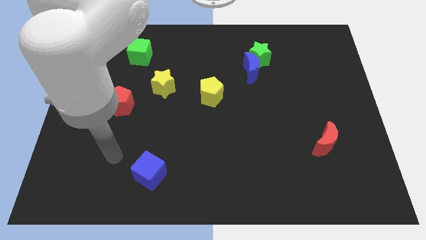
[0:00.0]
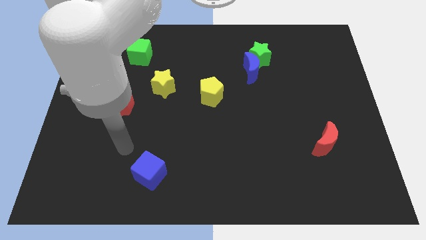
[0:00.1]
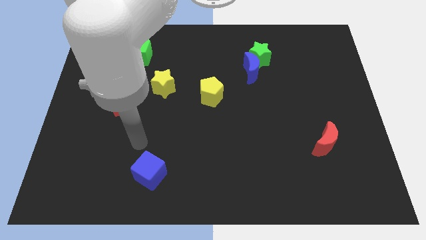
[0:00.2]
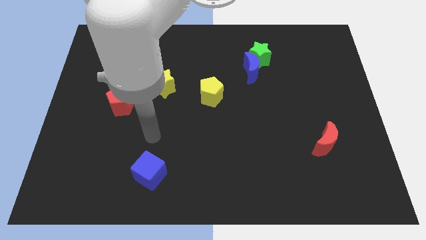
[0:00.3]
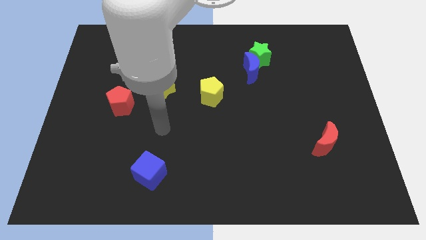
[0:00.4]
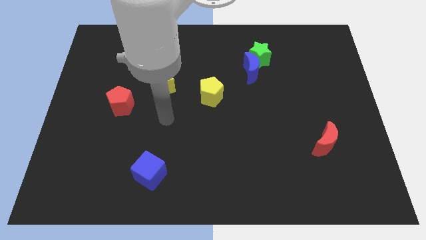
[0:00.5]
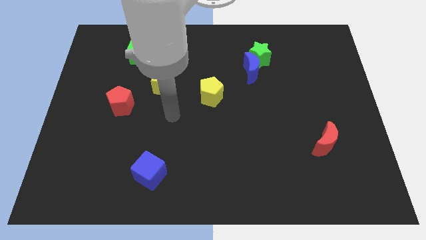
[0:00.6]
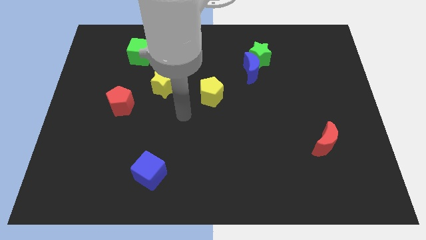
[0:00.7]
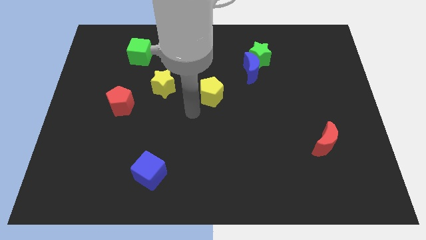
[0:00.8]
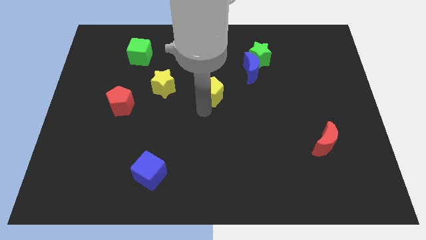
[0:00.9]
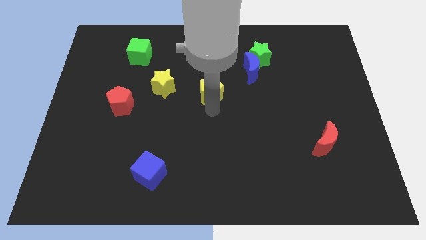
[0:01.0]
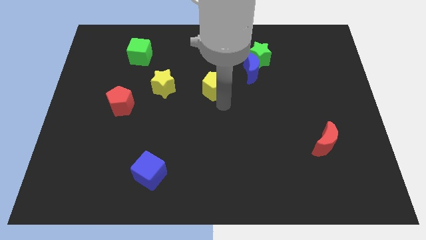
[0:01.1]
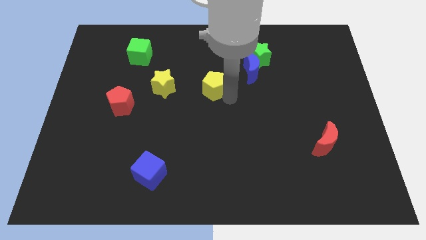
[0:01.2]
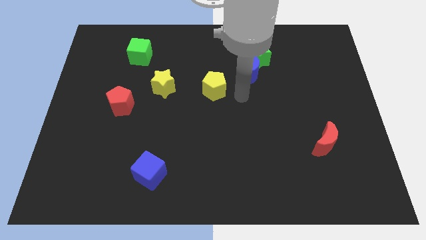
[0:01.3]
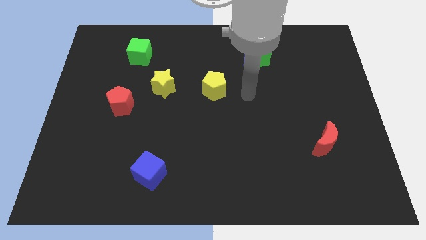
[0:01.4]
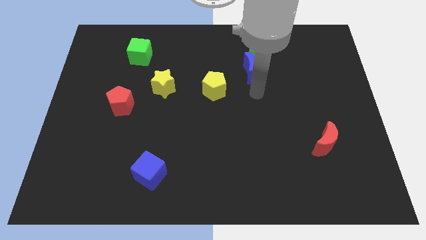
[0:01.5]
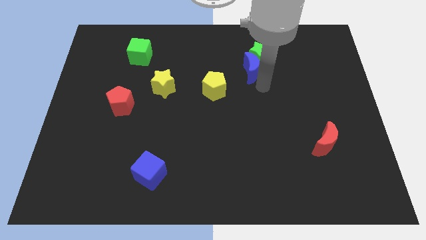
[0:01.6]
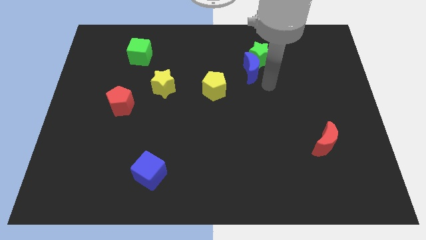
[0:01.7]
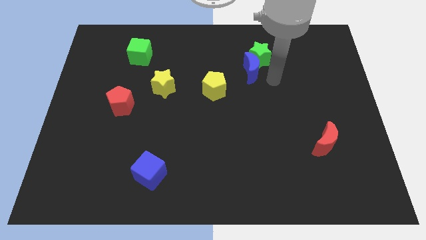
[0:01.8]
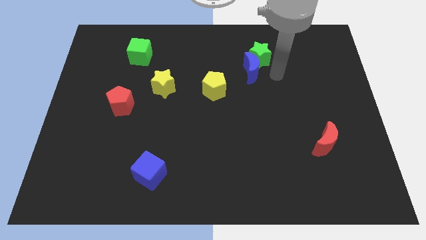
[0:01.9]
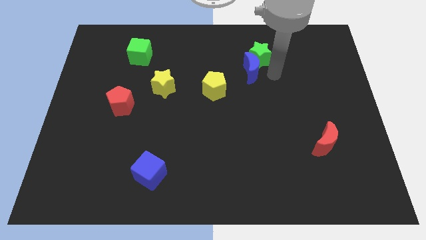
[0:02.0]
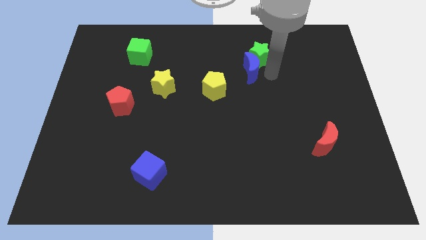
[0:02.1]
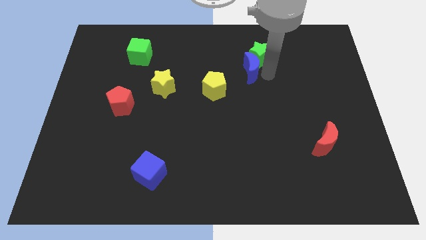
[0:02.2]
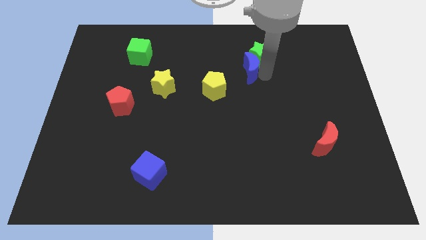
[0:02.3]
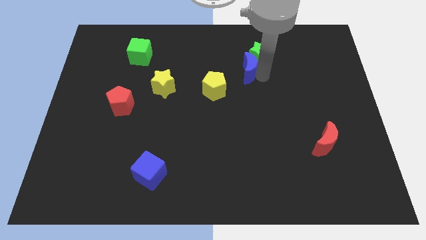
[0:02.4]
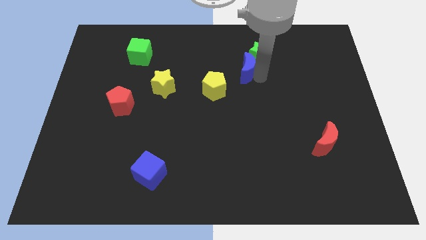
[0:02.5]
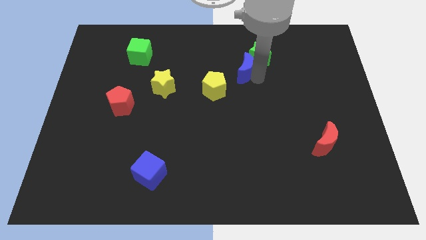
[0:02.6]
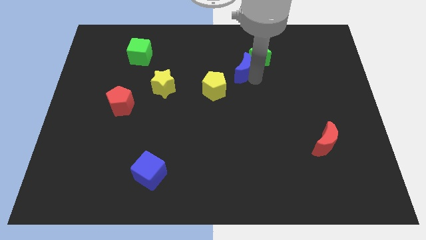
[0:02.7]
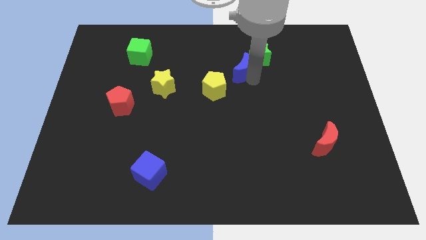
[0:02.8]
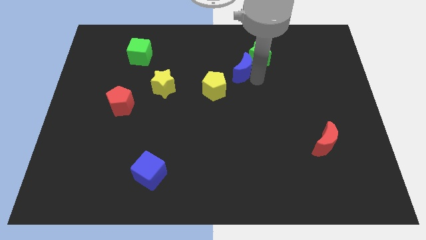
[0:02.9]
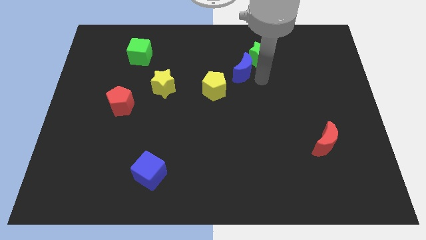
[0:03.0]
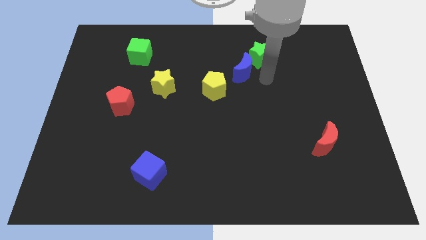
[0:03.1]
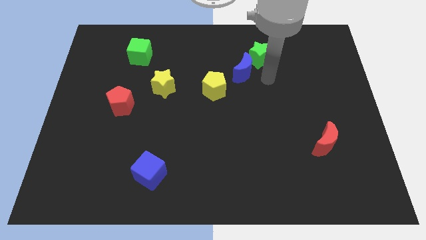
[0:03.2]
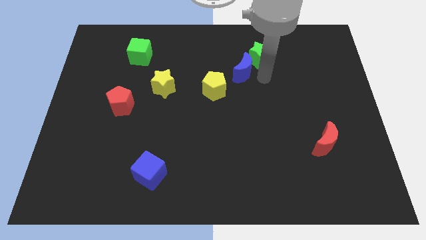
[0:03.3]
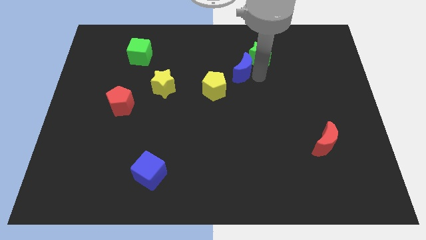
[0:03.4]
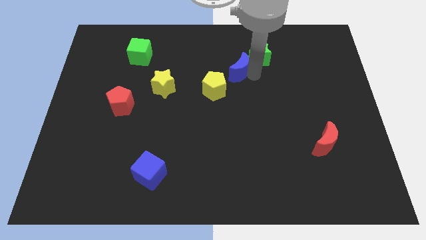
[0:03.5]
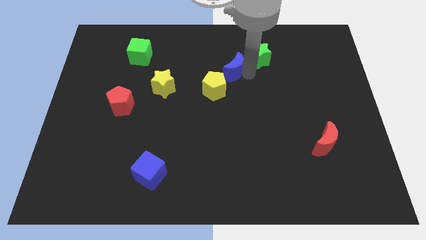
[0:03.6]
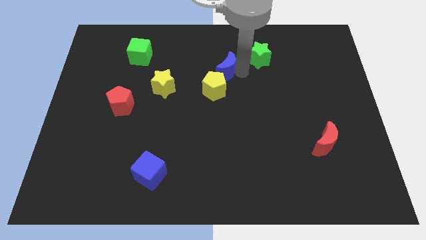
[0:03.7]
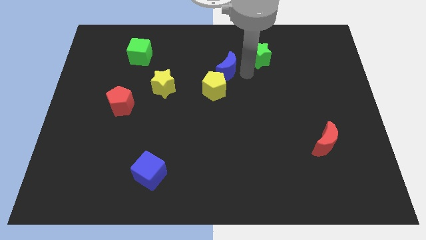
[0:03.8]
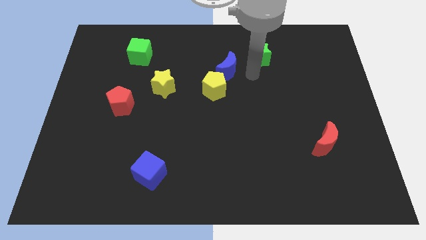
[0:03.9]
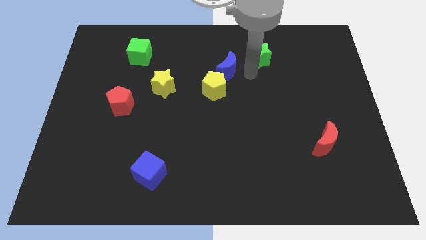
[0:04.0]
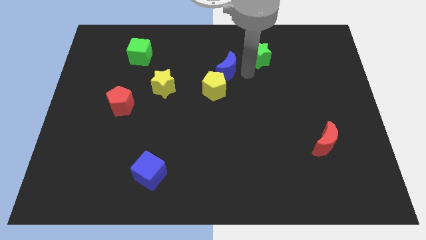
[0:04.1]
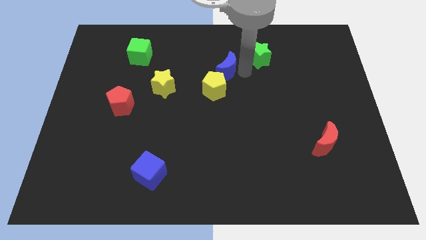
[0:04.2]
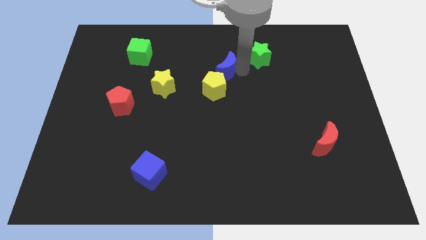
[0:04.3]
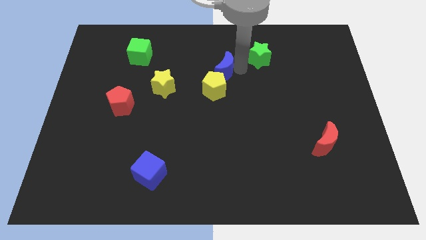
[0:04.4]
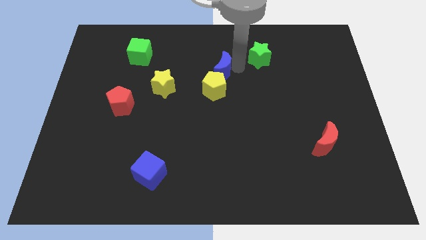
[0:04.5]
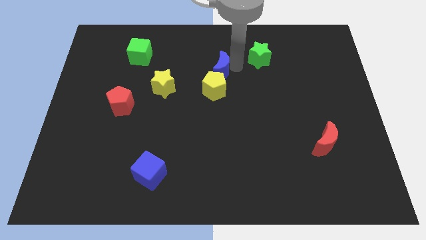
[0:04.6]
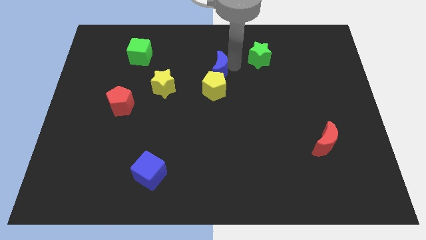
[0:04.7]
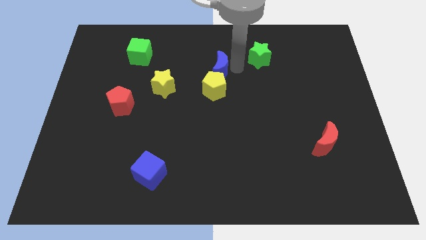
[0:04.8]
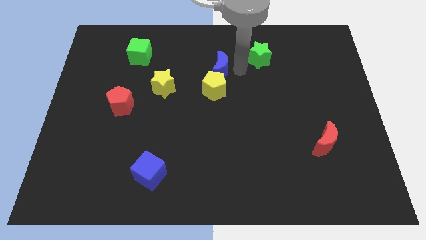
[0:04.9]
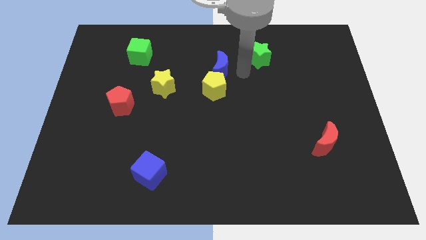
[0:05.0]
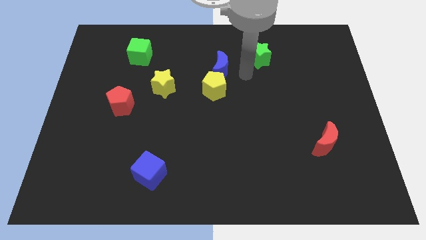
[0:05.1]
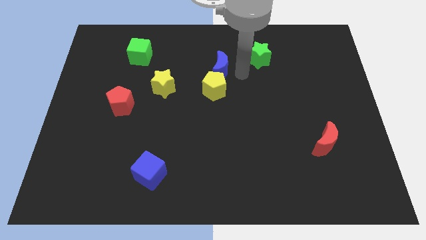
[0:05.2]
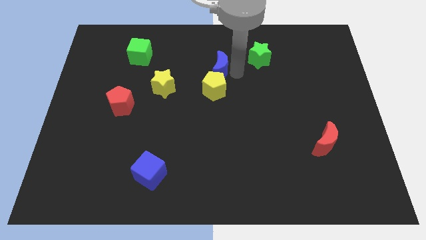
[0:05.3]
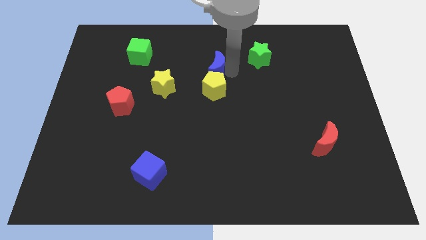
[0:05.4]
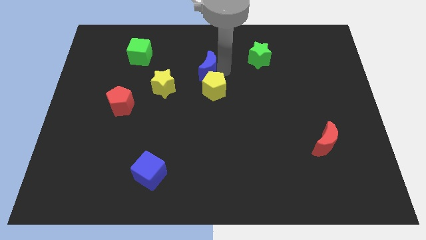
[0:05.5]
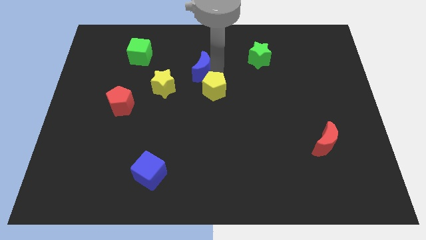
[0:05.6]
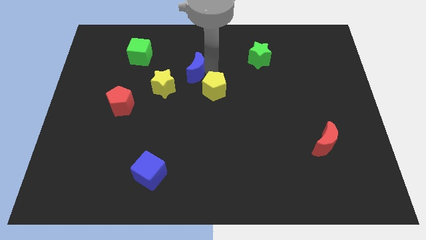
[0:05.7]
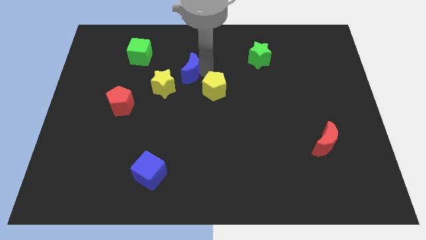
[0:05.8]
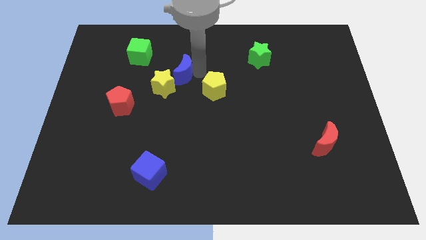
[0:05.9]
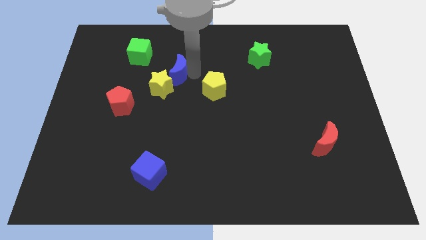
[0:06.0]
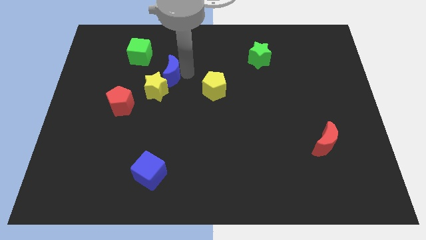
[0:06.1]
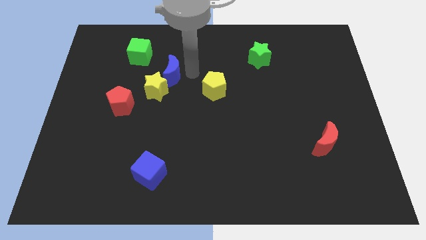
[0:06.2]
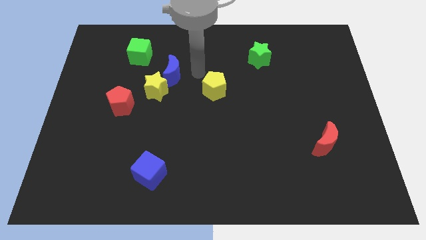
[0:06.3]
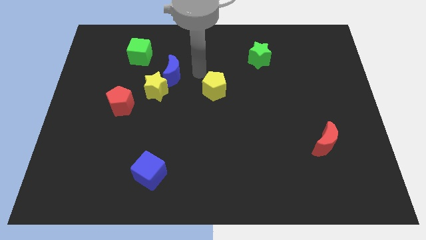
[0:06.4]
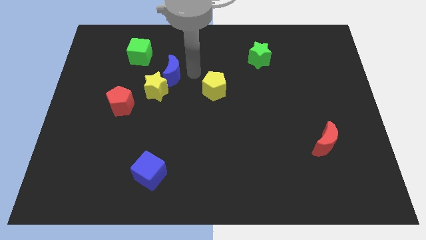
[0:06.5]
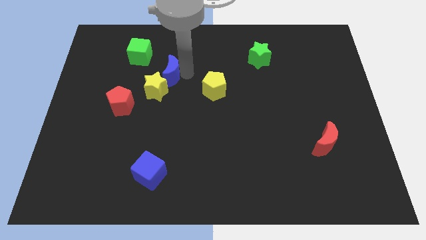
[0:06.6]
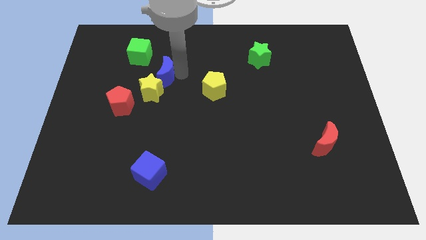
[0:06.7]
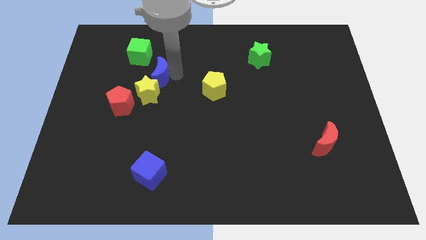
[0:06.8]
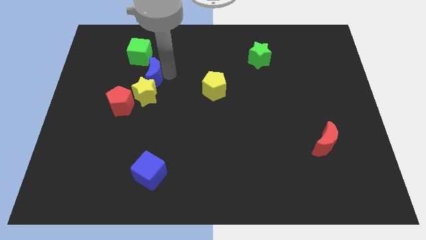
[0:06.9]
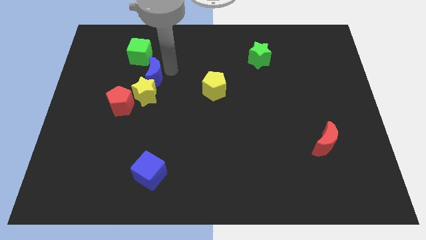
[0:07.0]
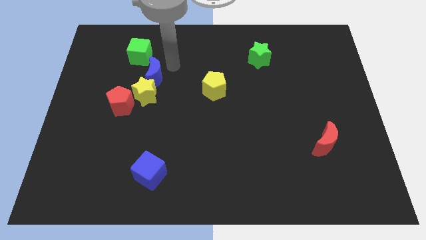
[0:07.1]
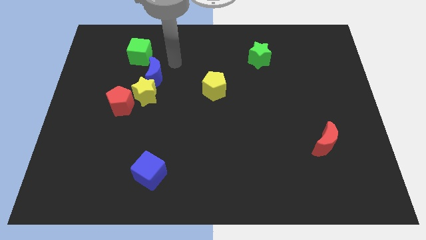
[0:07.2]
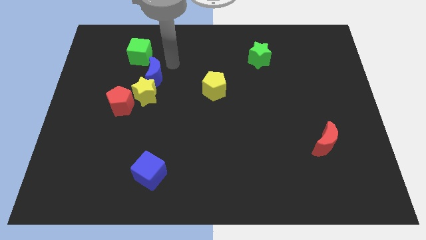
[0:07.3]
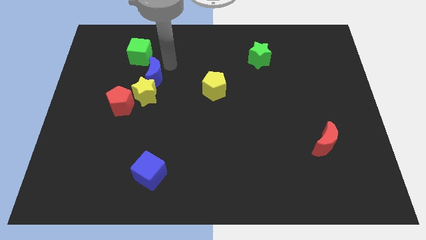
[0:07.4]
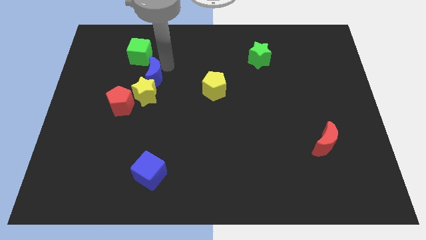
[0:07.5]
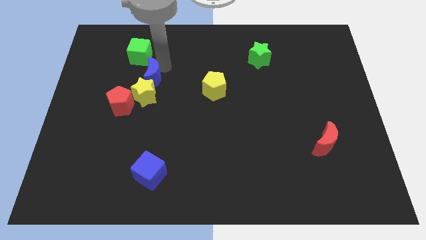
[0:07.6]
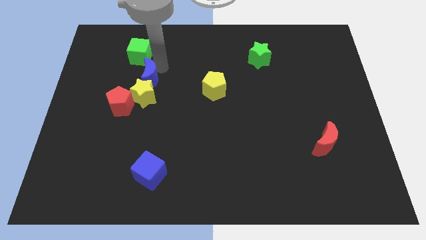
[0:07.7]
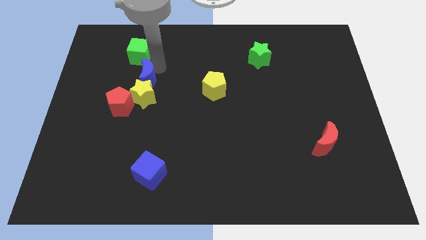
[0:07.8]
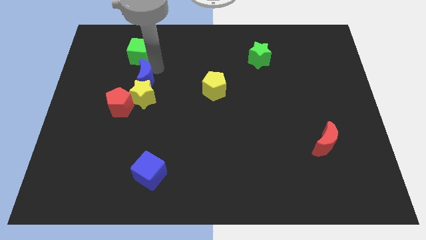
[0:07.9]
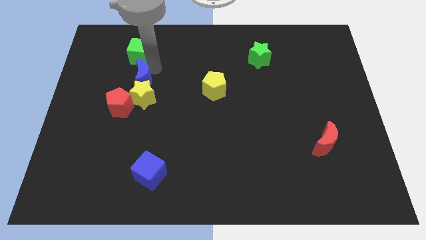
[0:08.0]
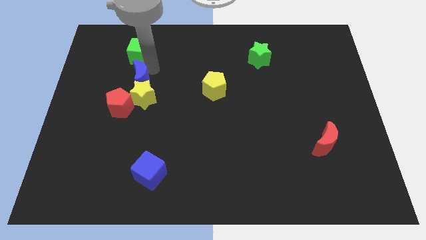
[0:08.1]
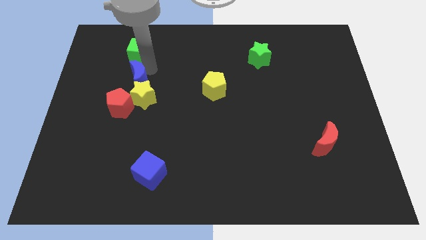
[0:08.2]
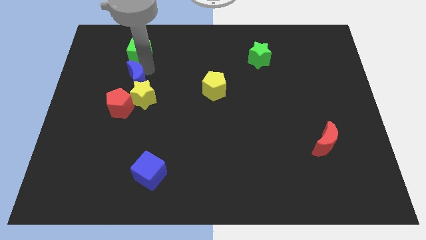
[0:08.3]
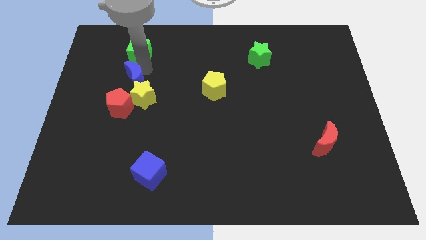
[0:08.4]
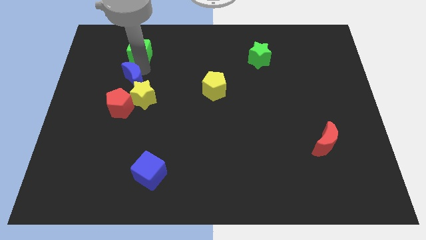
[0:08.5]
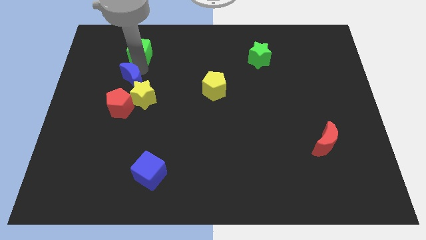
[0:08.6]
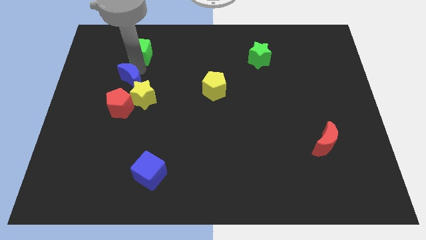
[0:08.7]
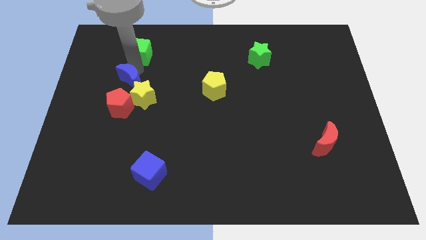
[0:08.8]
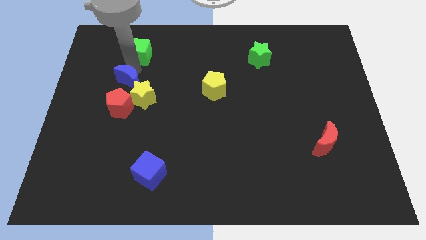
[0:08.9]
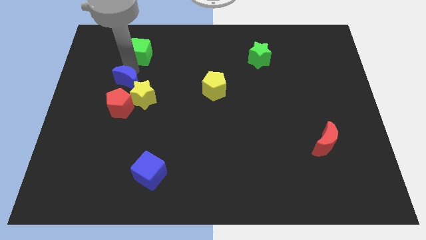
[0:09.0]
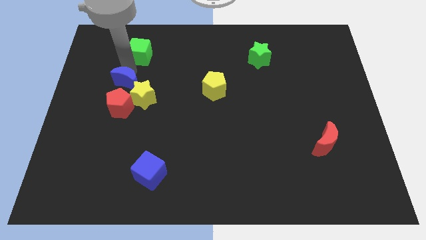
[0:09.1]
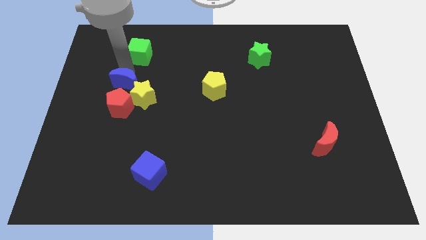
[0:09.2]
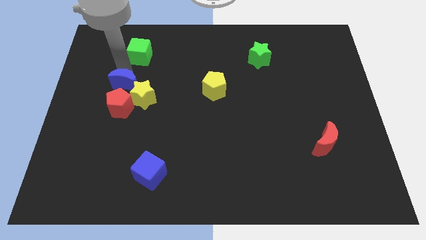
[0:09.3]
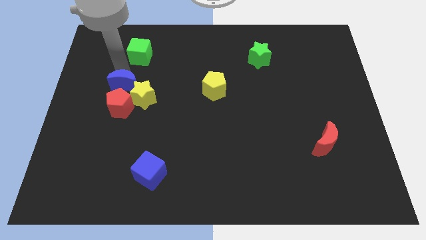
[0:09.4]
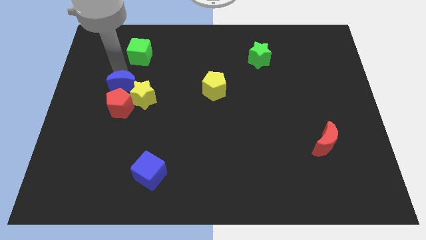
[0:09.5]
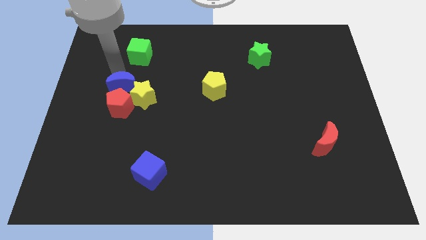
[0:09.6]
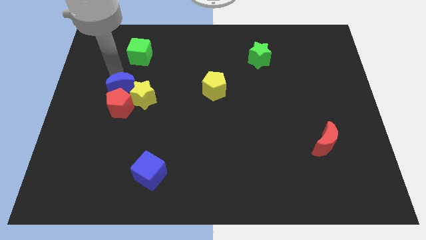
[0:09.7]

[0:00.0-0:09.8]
move the blue moon close to the red pentagon
